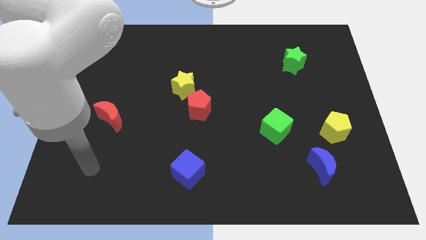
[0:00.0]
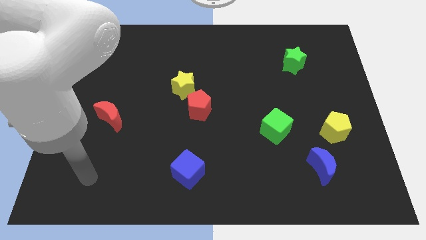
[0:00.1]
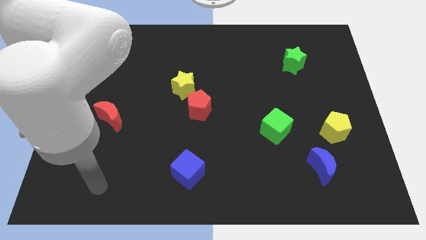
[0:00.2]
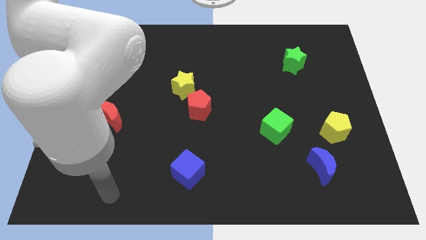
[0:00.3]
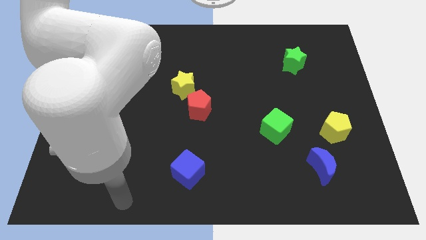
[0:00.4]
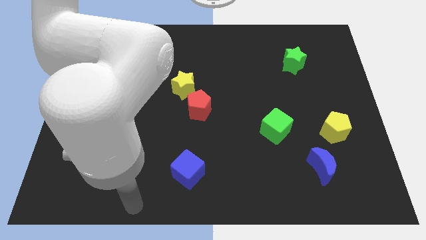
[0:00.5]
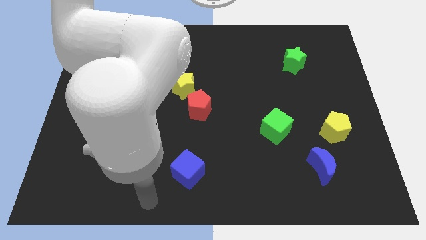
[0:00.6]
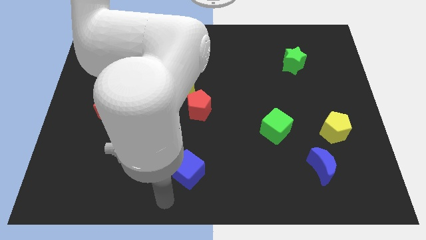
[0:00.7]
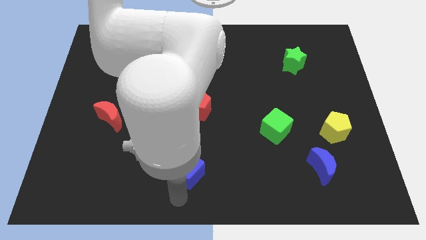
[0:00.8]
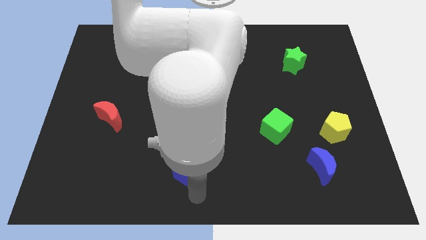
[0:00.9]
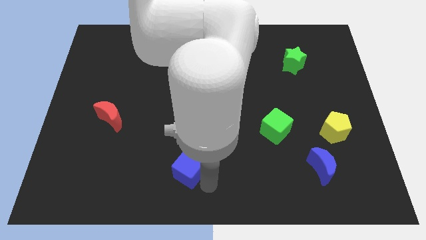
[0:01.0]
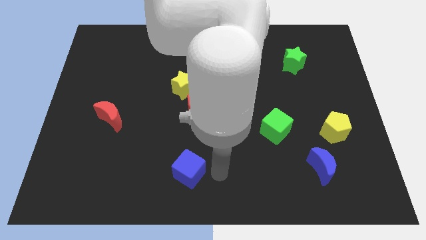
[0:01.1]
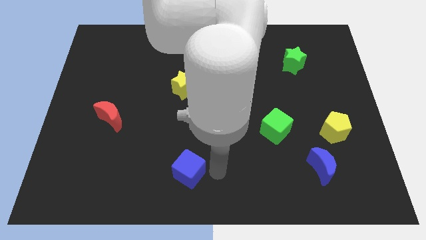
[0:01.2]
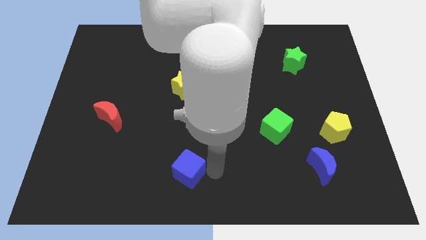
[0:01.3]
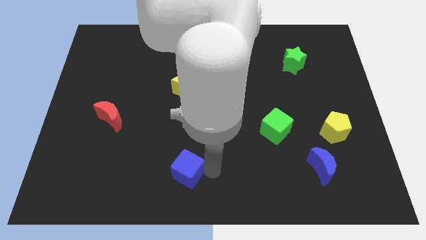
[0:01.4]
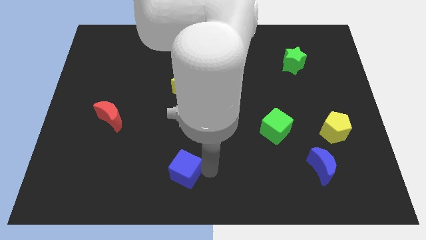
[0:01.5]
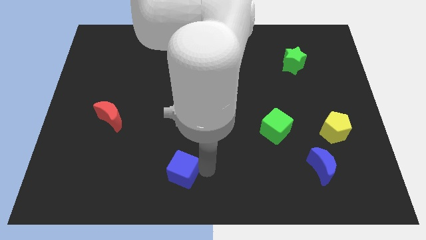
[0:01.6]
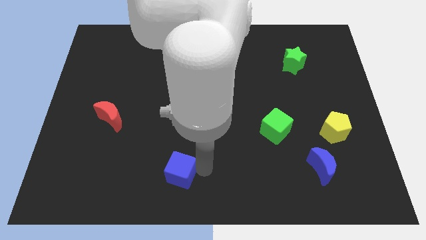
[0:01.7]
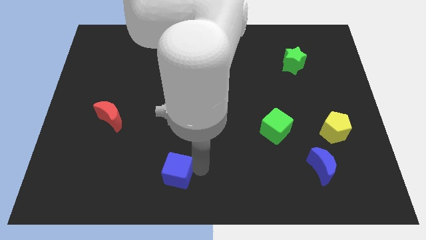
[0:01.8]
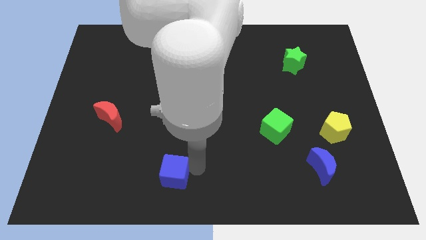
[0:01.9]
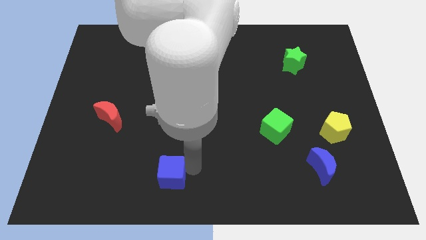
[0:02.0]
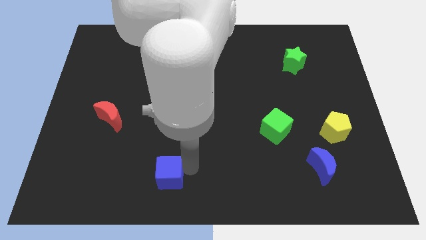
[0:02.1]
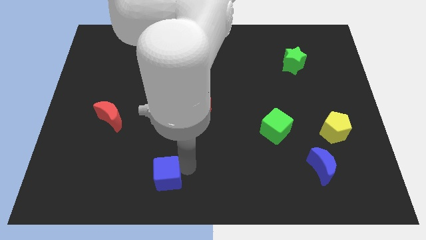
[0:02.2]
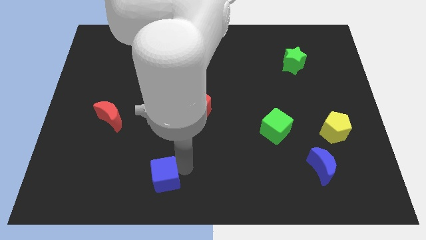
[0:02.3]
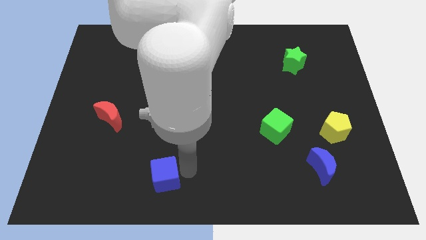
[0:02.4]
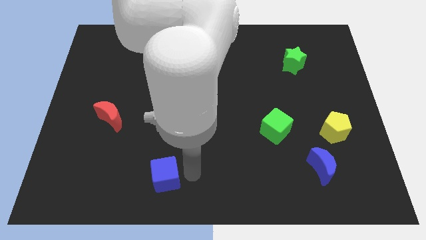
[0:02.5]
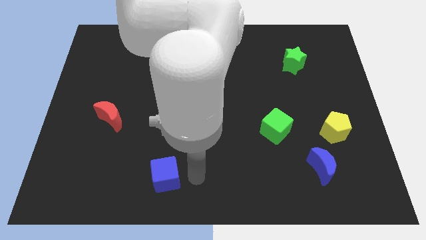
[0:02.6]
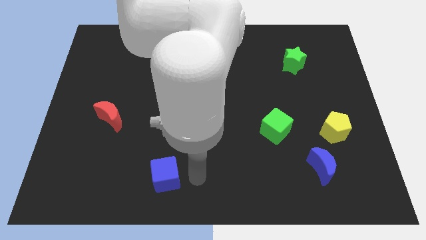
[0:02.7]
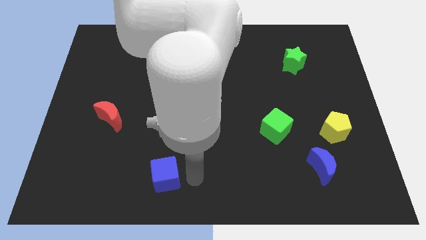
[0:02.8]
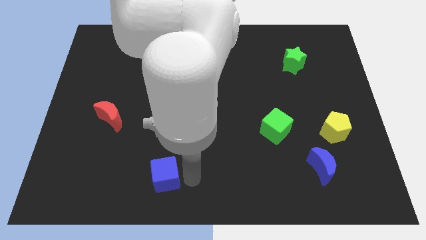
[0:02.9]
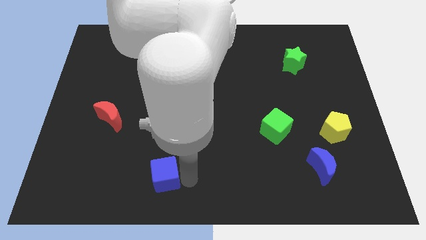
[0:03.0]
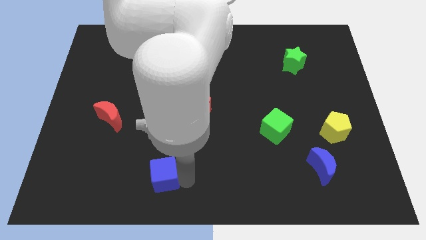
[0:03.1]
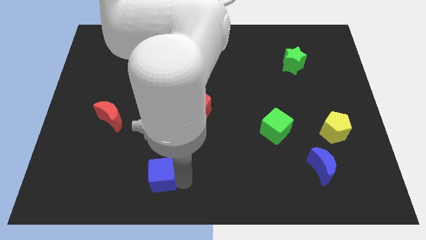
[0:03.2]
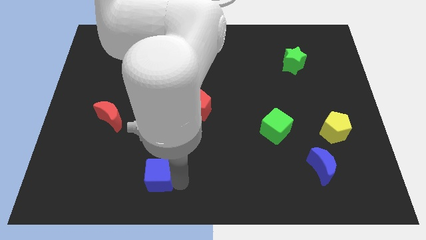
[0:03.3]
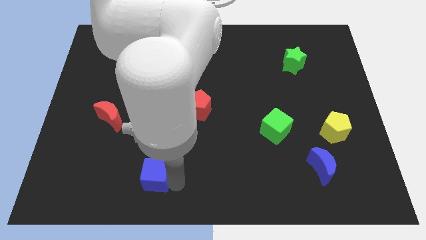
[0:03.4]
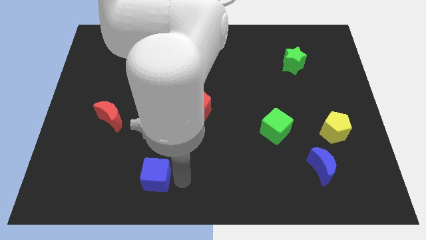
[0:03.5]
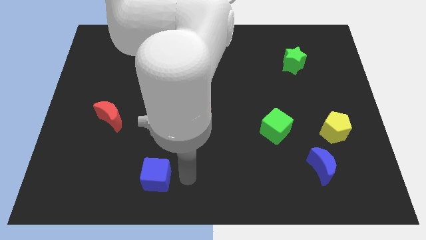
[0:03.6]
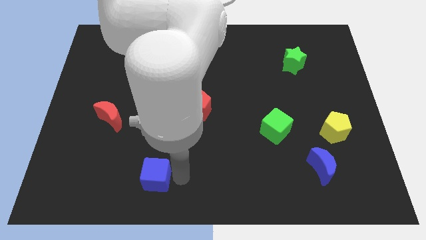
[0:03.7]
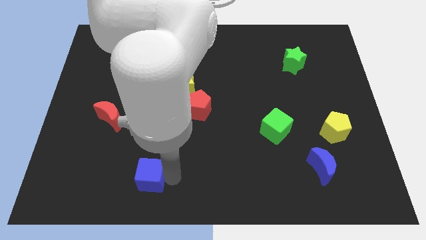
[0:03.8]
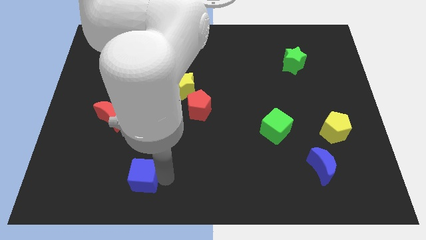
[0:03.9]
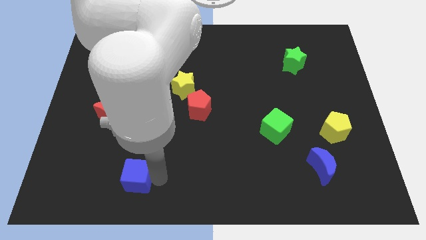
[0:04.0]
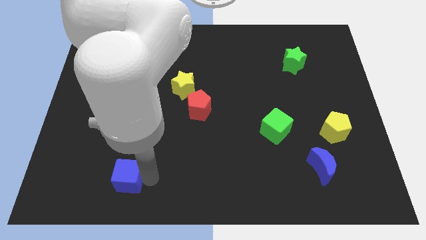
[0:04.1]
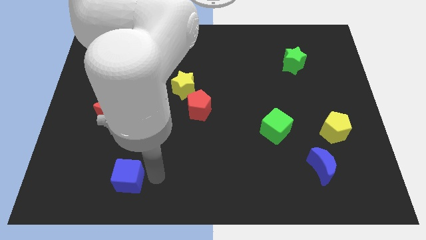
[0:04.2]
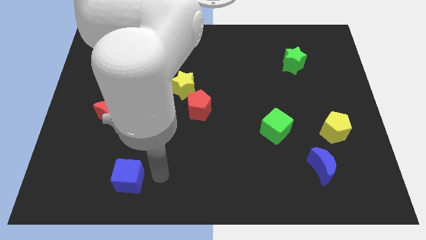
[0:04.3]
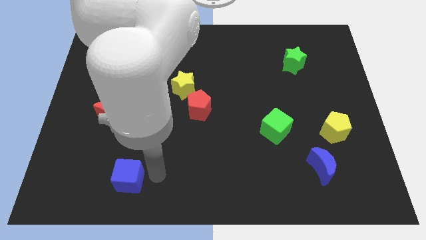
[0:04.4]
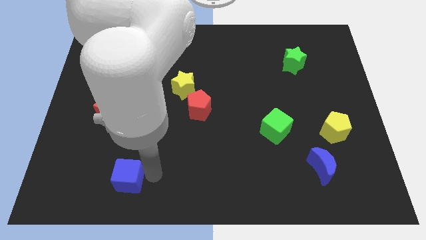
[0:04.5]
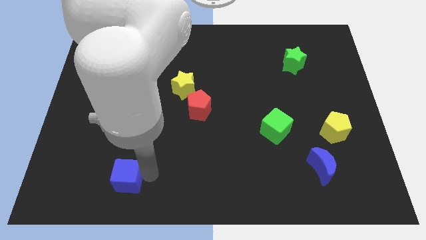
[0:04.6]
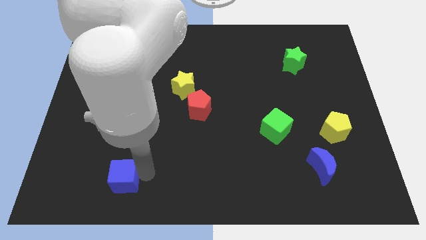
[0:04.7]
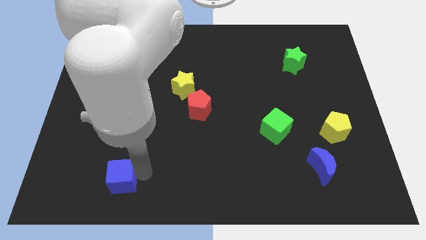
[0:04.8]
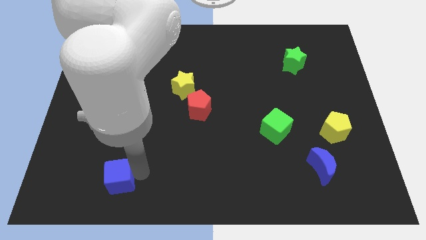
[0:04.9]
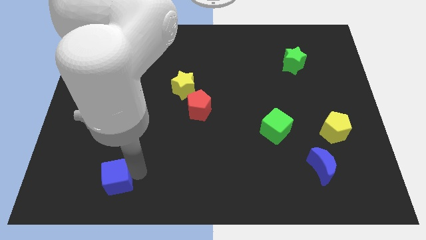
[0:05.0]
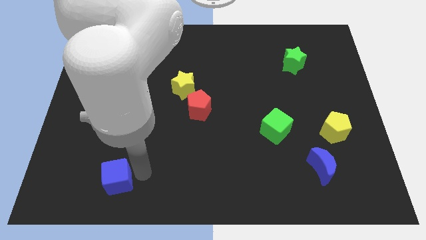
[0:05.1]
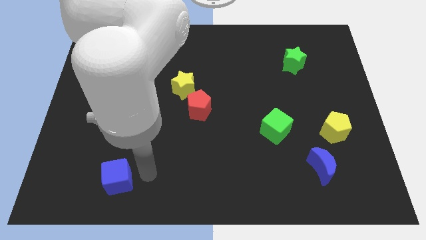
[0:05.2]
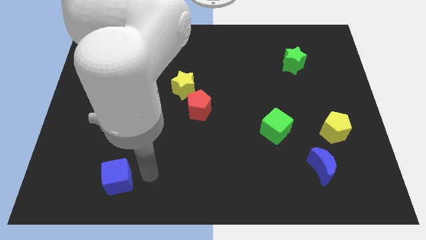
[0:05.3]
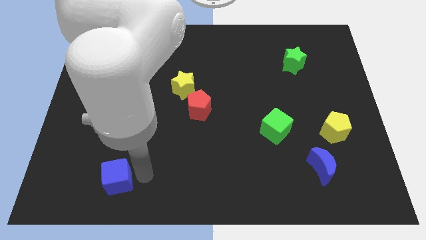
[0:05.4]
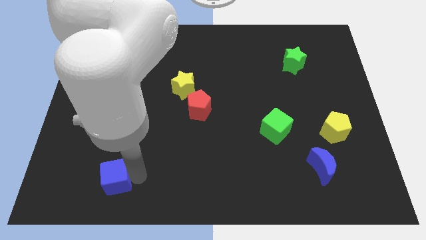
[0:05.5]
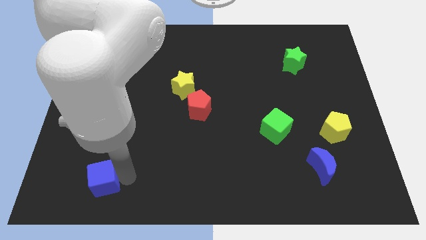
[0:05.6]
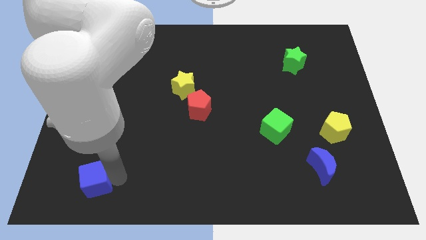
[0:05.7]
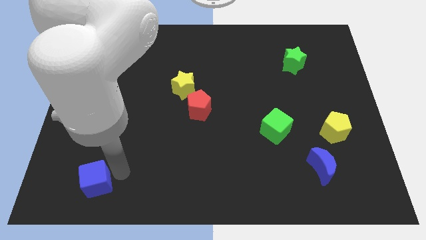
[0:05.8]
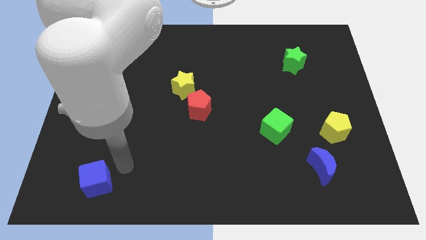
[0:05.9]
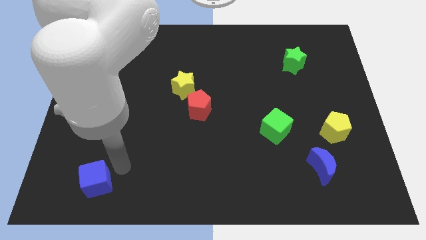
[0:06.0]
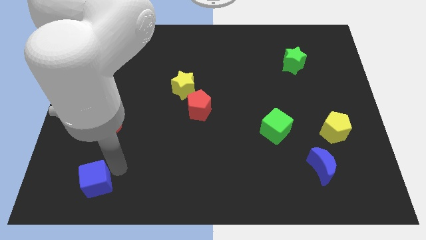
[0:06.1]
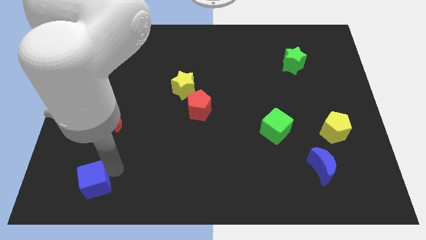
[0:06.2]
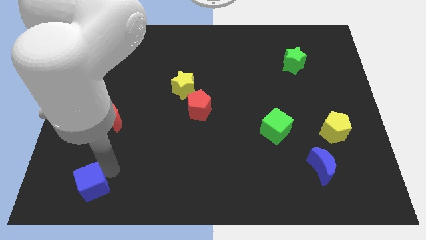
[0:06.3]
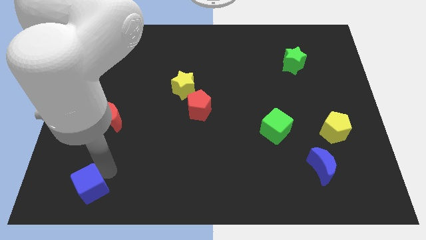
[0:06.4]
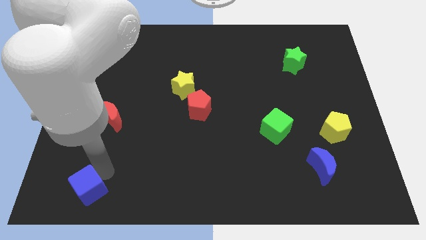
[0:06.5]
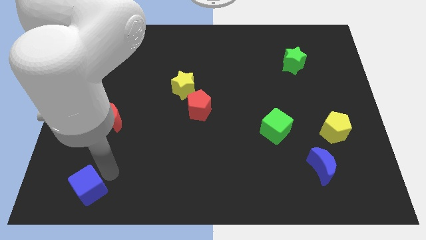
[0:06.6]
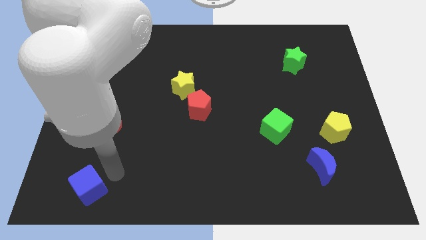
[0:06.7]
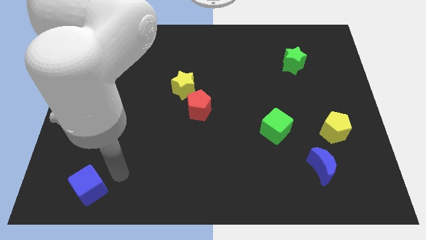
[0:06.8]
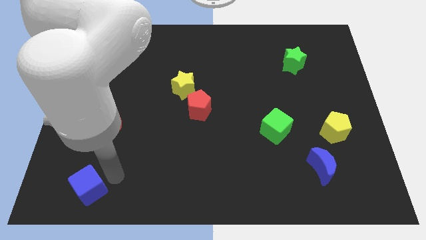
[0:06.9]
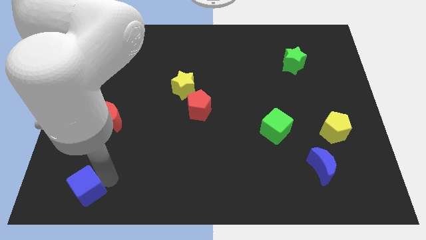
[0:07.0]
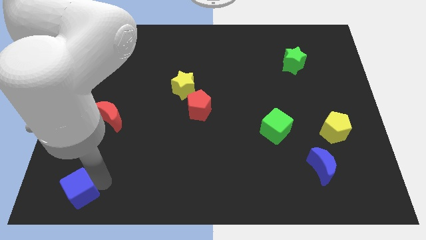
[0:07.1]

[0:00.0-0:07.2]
push the blue cube to the bottom left of the board
